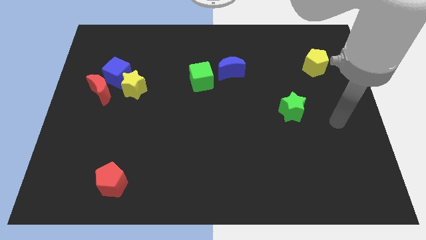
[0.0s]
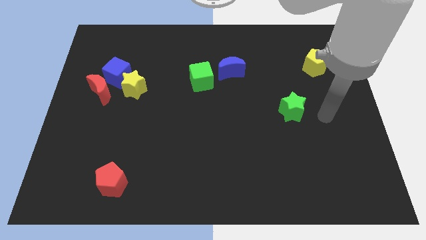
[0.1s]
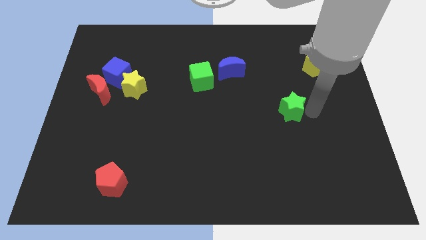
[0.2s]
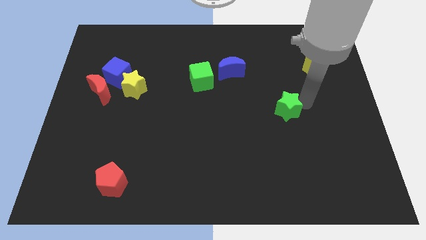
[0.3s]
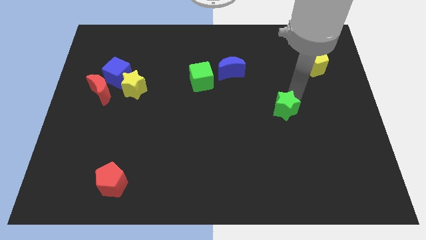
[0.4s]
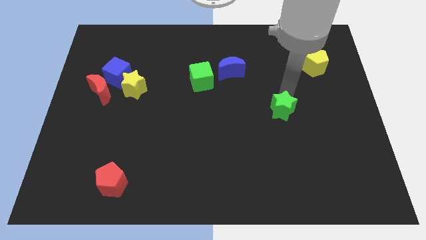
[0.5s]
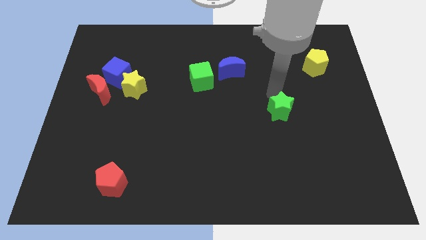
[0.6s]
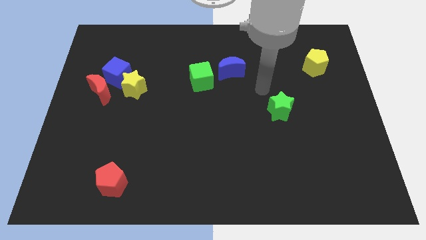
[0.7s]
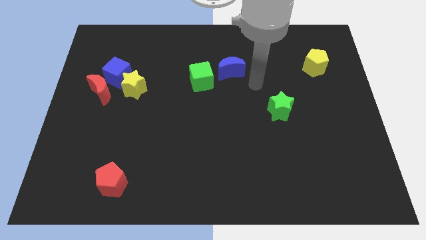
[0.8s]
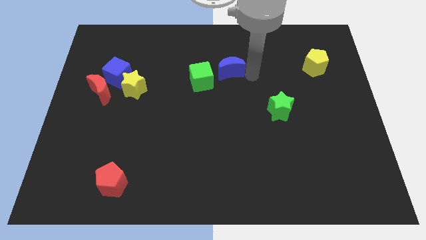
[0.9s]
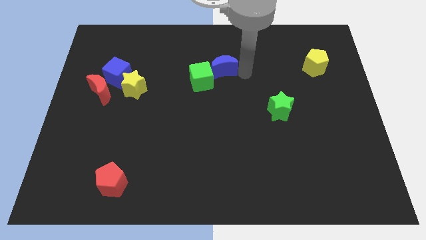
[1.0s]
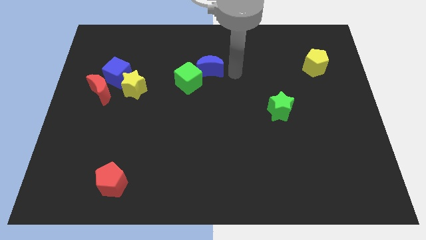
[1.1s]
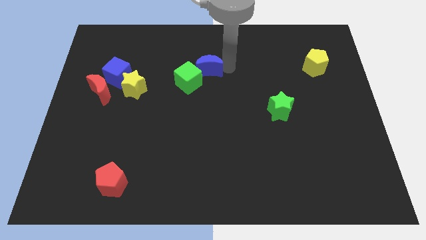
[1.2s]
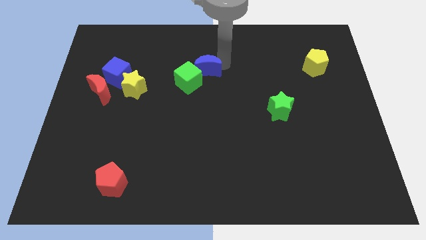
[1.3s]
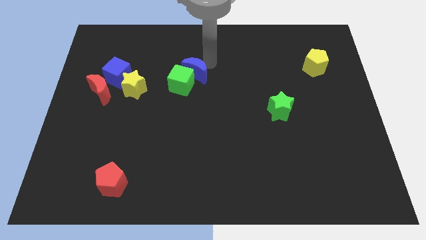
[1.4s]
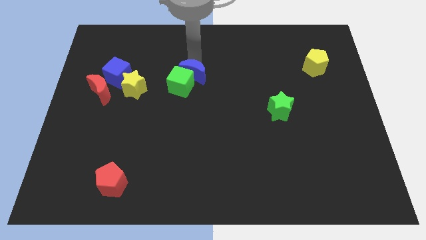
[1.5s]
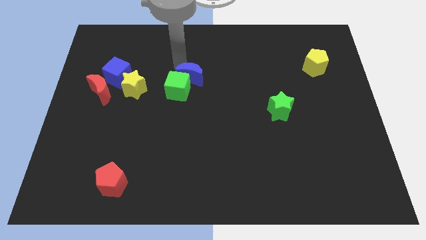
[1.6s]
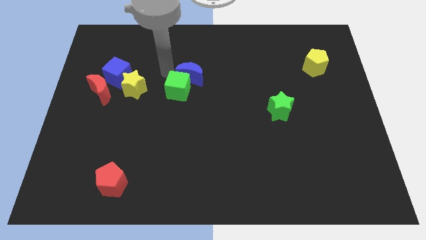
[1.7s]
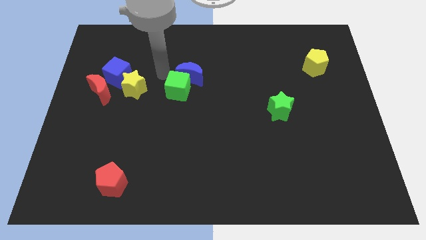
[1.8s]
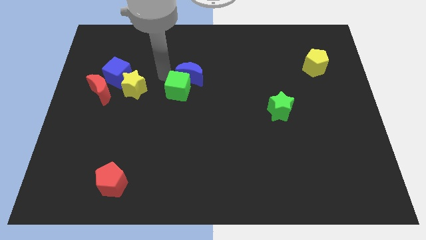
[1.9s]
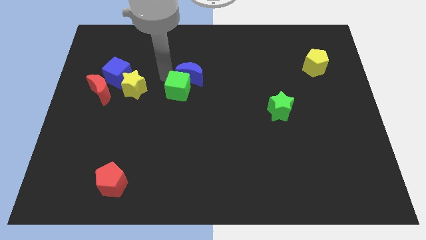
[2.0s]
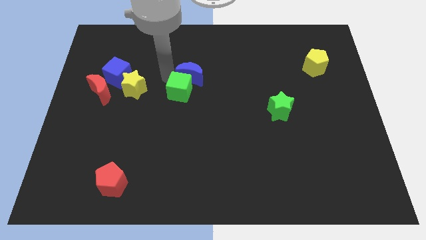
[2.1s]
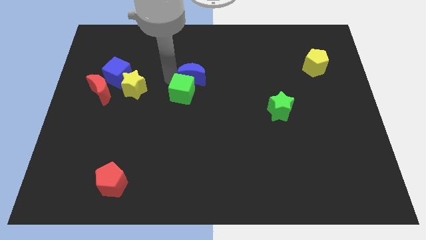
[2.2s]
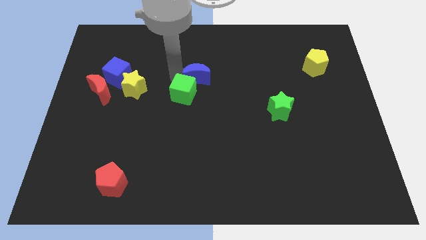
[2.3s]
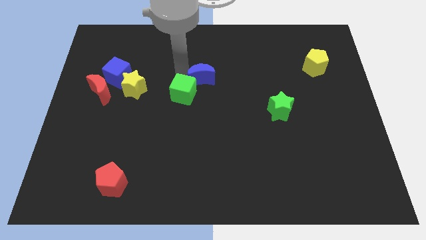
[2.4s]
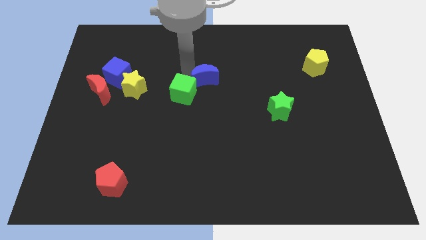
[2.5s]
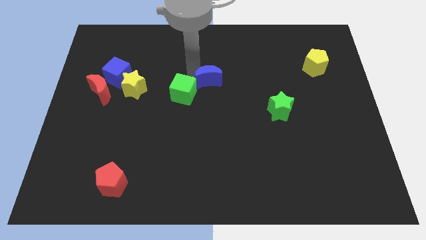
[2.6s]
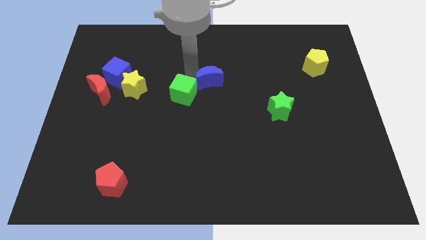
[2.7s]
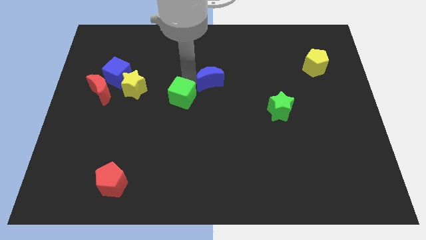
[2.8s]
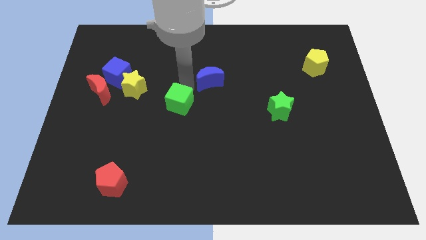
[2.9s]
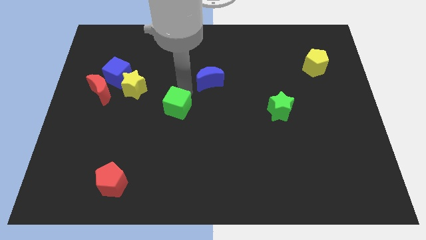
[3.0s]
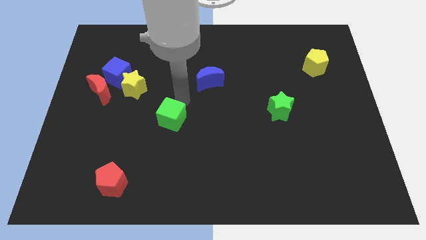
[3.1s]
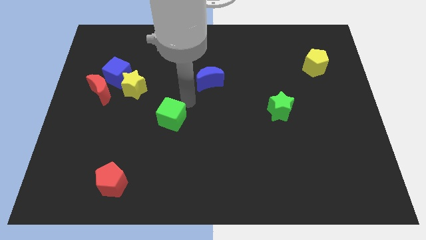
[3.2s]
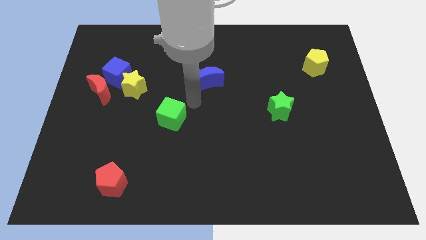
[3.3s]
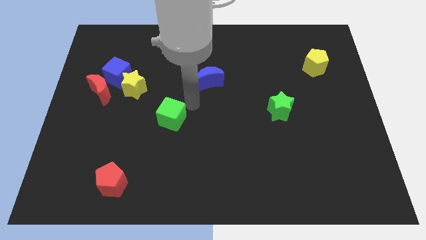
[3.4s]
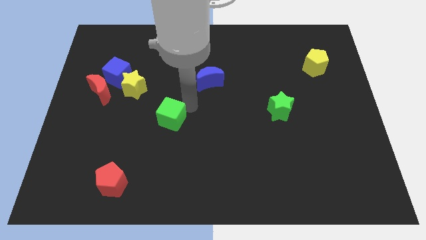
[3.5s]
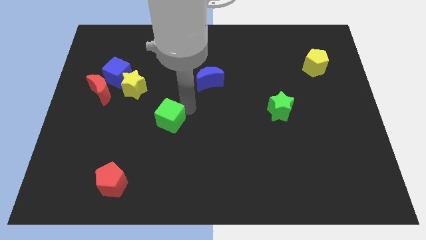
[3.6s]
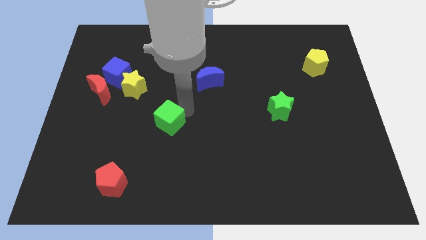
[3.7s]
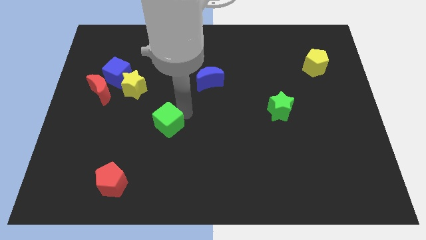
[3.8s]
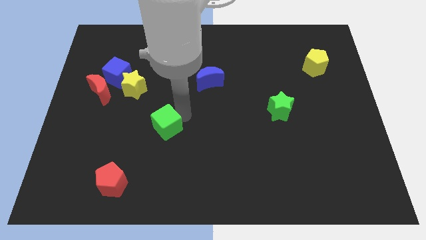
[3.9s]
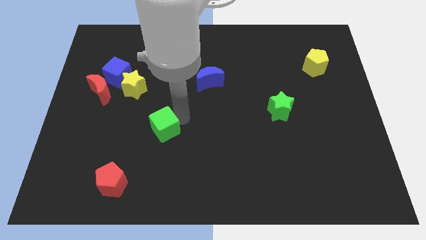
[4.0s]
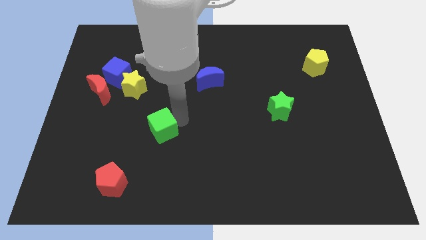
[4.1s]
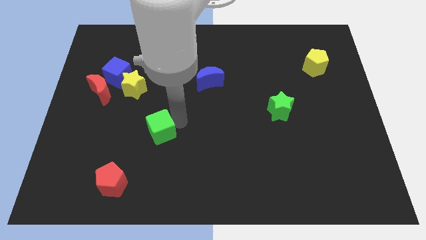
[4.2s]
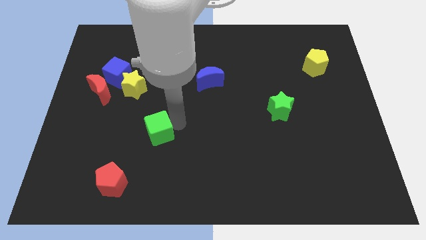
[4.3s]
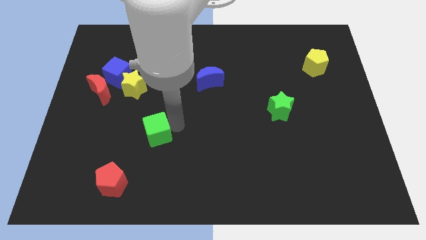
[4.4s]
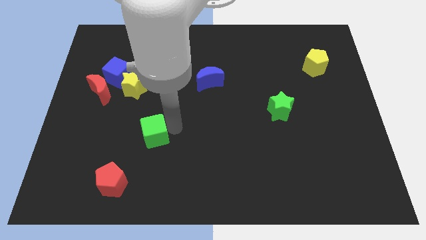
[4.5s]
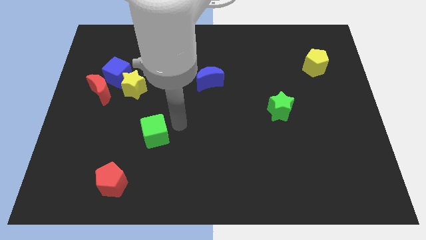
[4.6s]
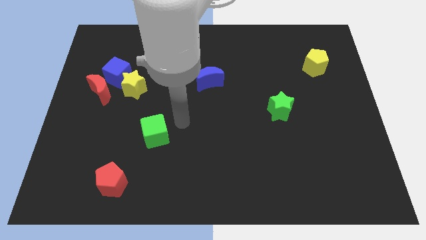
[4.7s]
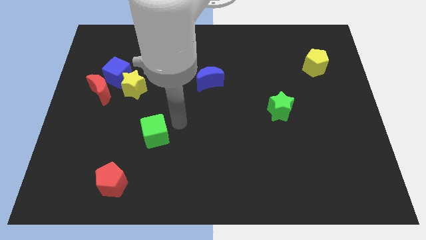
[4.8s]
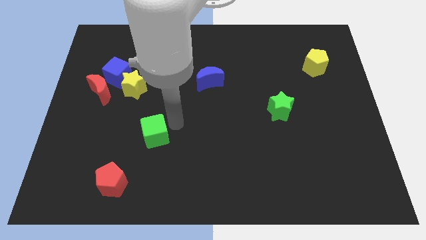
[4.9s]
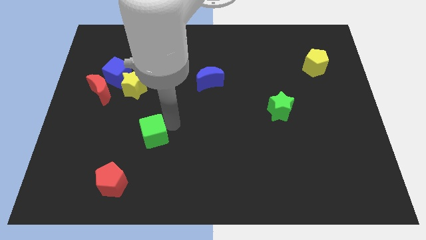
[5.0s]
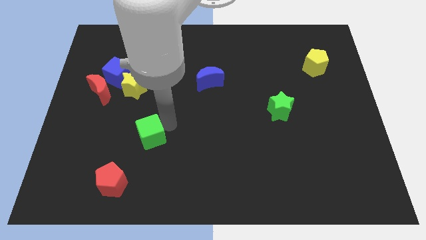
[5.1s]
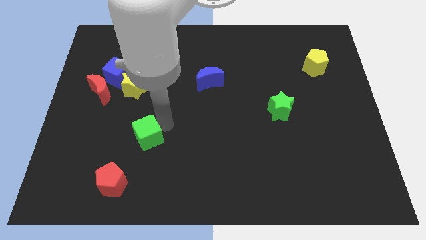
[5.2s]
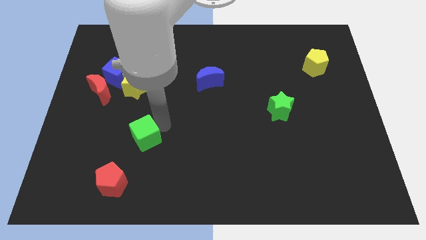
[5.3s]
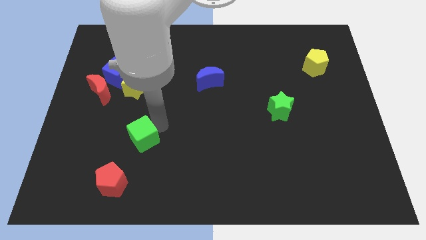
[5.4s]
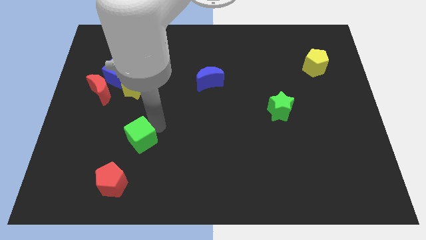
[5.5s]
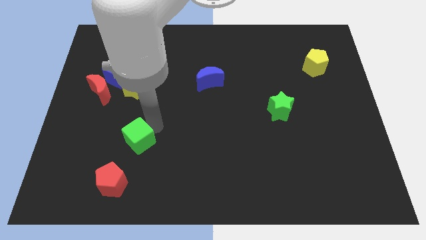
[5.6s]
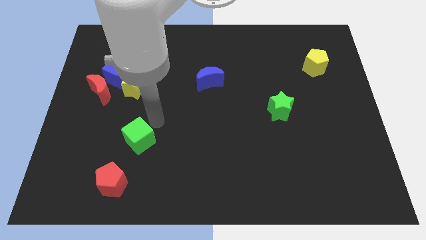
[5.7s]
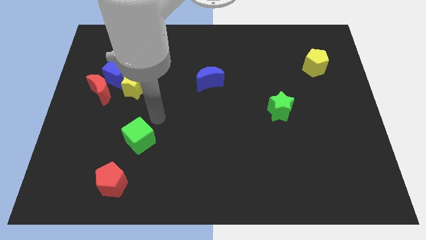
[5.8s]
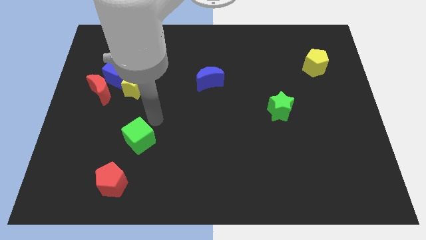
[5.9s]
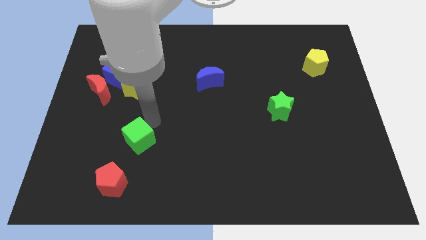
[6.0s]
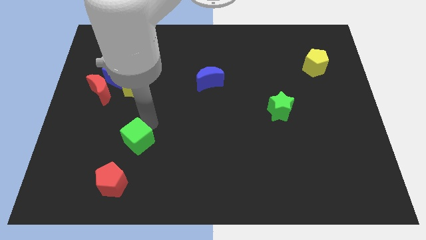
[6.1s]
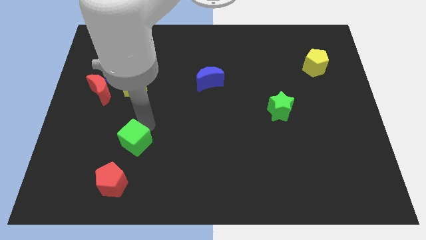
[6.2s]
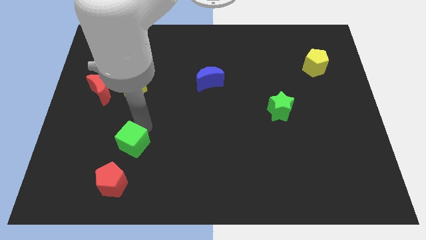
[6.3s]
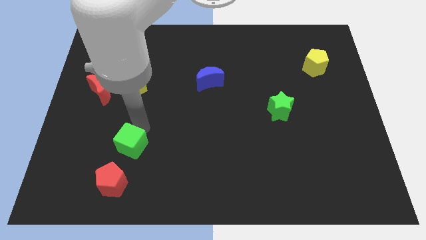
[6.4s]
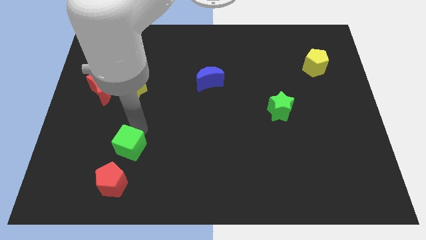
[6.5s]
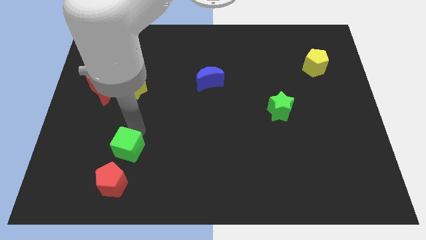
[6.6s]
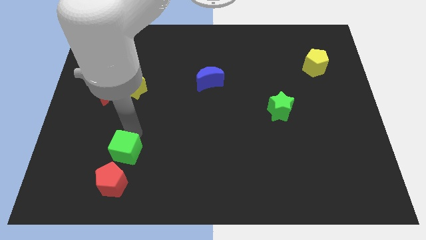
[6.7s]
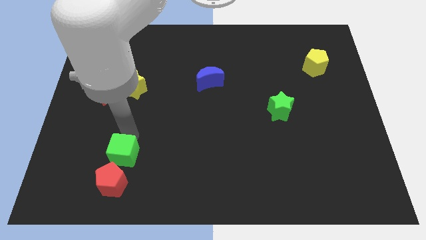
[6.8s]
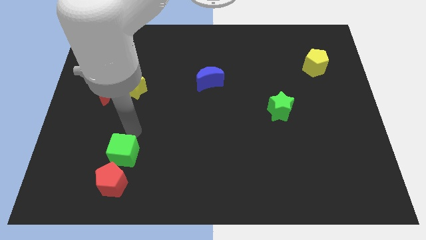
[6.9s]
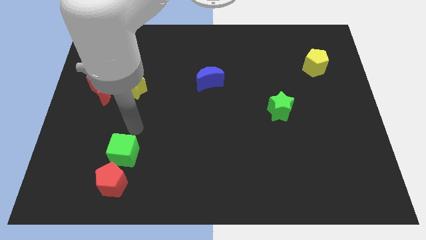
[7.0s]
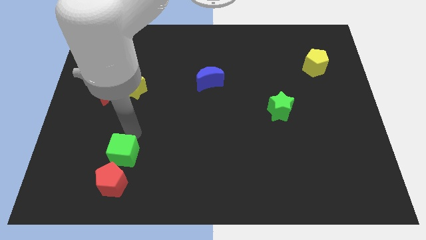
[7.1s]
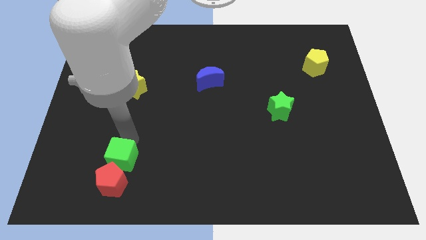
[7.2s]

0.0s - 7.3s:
push the green cube close to the red pentagon
